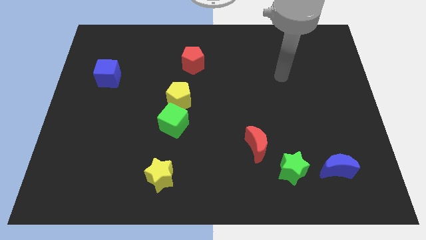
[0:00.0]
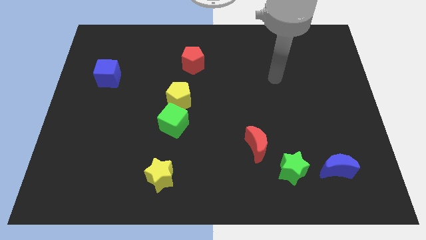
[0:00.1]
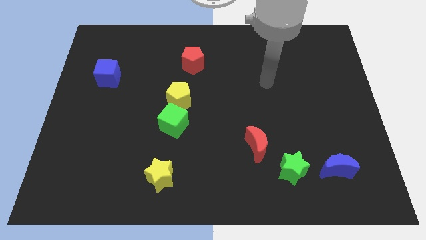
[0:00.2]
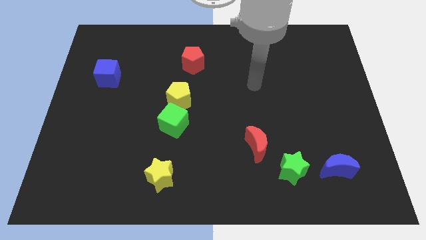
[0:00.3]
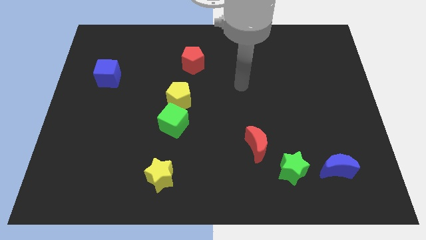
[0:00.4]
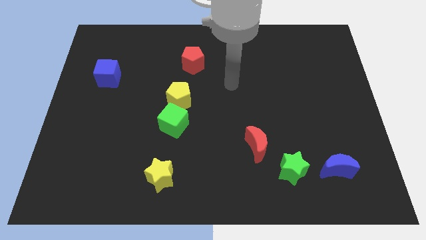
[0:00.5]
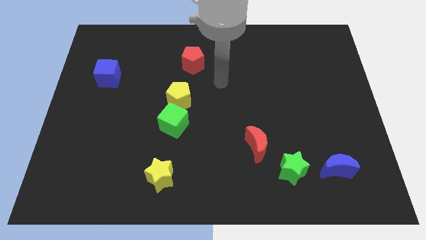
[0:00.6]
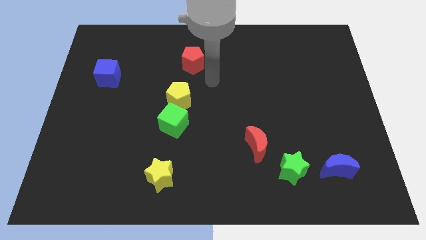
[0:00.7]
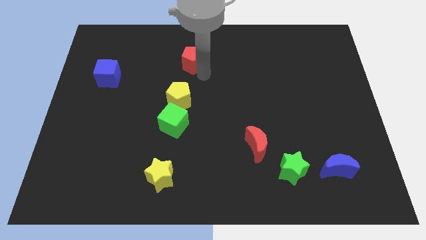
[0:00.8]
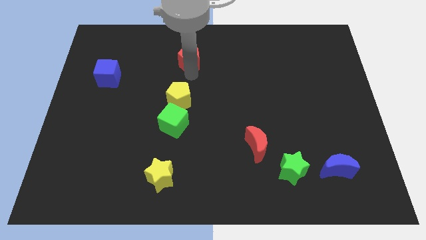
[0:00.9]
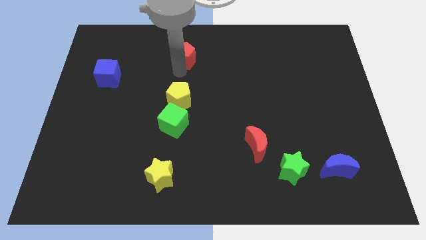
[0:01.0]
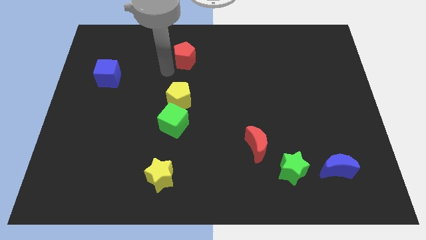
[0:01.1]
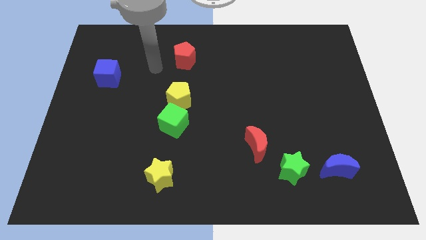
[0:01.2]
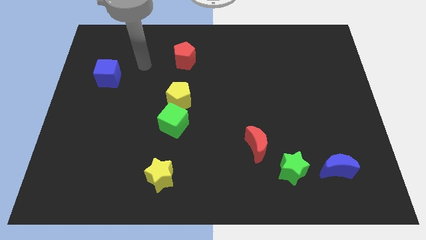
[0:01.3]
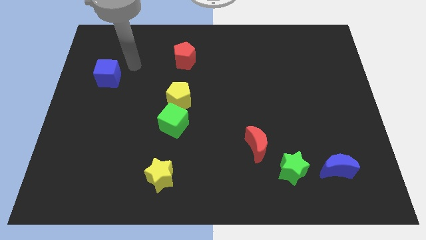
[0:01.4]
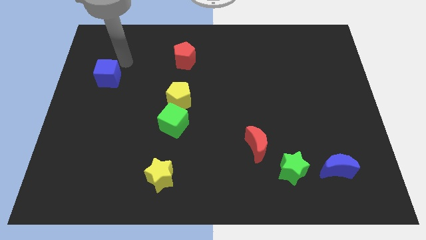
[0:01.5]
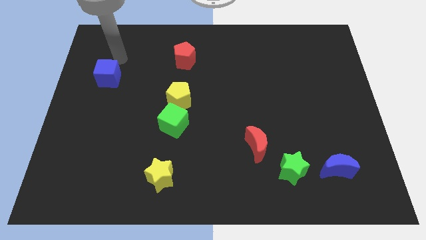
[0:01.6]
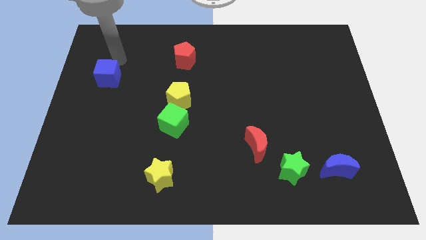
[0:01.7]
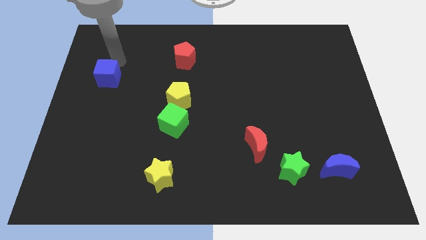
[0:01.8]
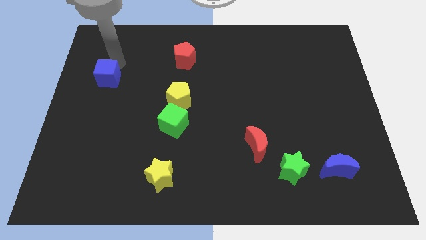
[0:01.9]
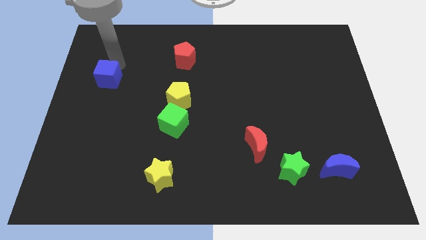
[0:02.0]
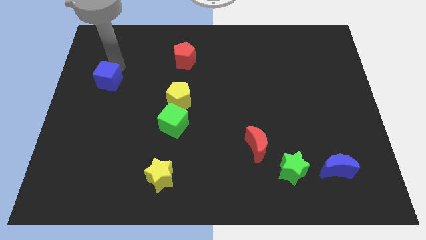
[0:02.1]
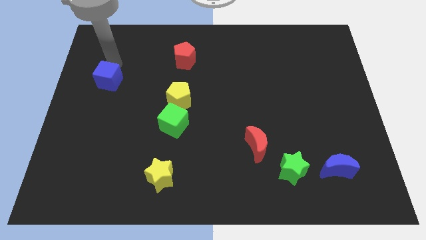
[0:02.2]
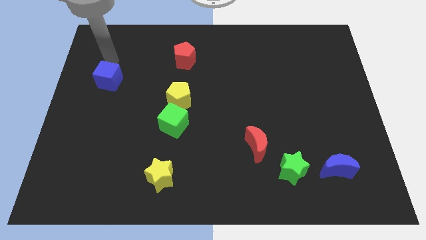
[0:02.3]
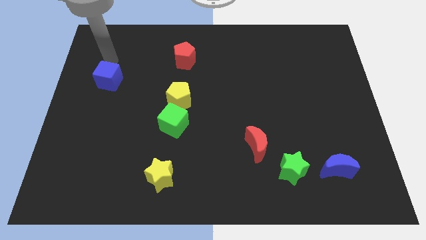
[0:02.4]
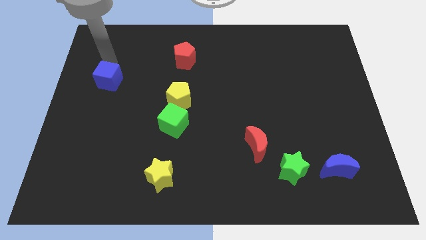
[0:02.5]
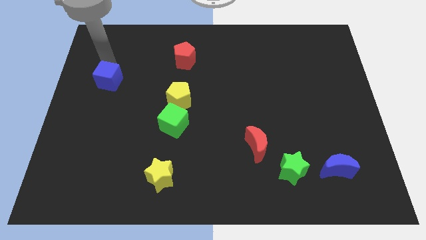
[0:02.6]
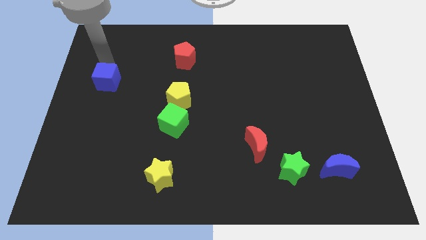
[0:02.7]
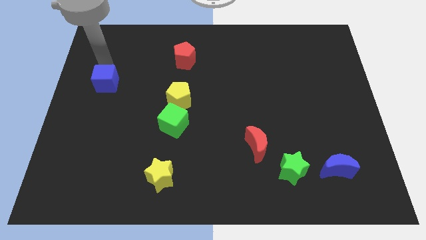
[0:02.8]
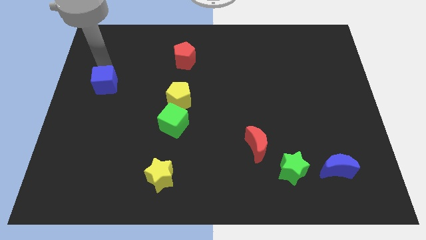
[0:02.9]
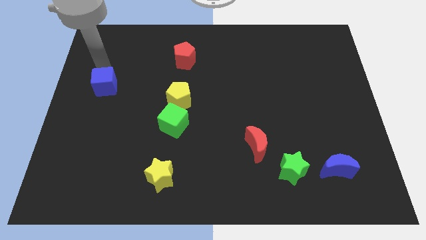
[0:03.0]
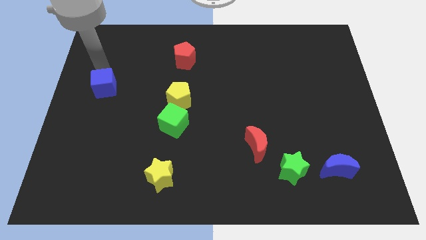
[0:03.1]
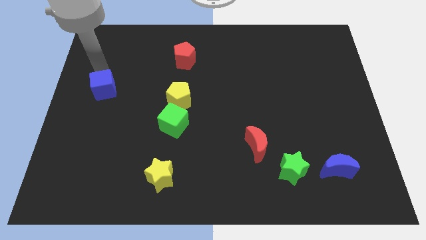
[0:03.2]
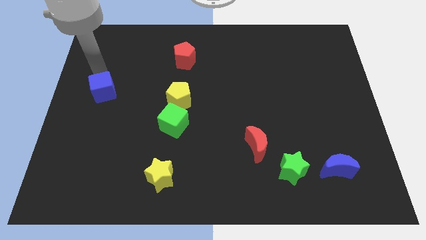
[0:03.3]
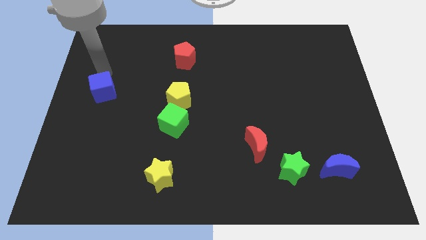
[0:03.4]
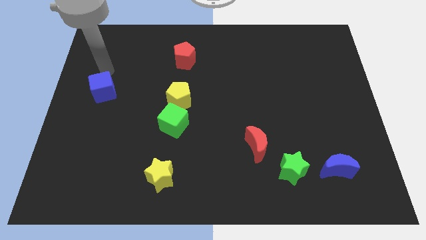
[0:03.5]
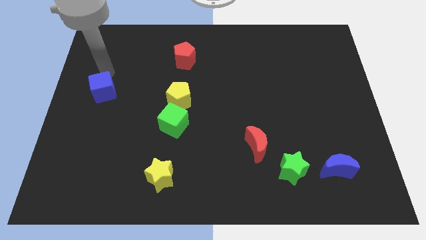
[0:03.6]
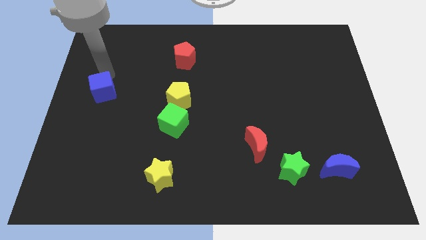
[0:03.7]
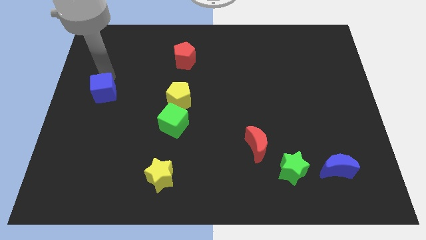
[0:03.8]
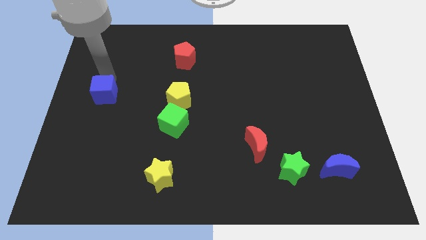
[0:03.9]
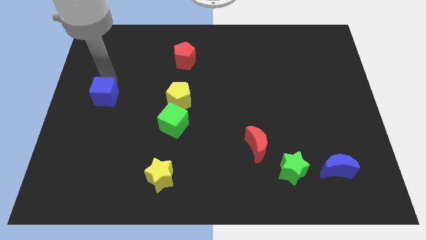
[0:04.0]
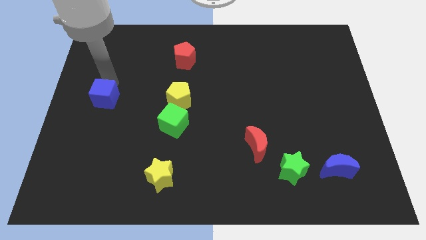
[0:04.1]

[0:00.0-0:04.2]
slightly slide the blue cube down

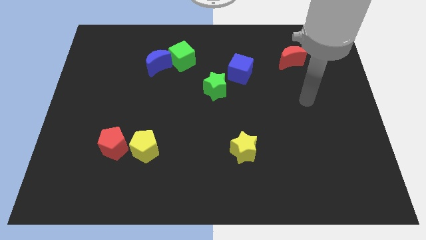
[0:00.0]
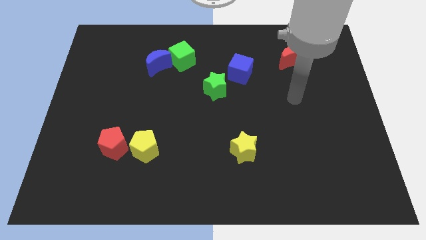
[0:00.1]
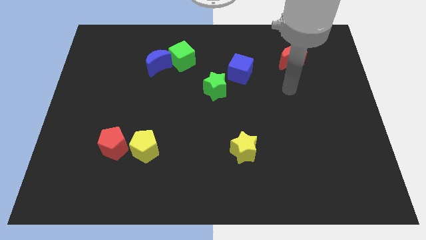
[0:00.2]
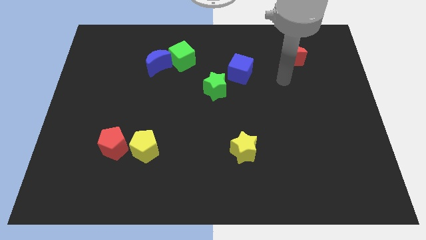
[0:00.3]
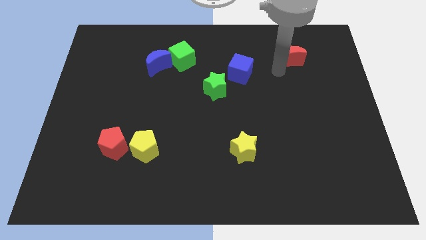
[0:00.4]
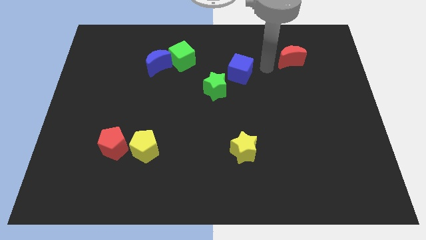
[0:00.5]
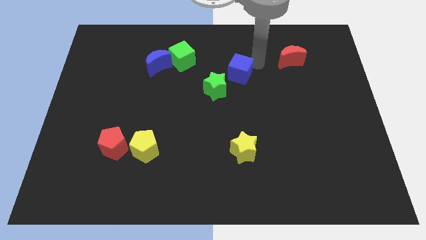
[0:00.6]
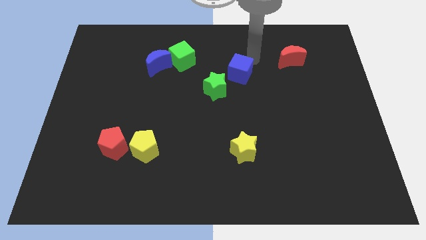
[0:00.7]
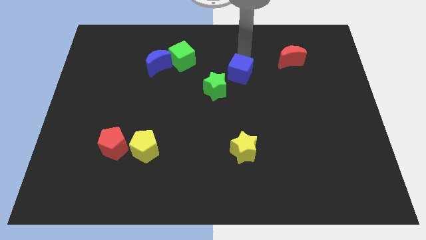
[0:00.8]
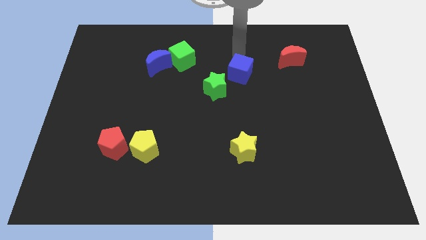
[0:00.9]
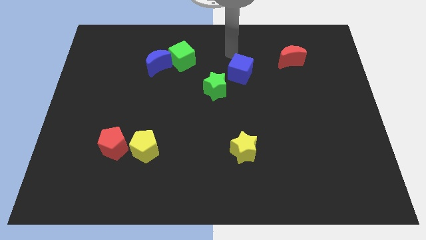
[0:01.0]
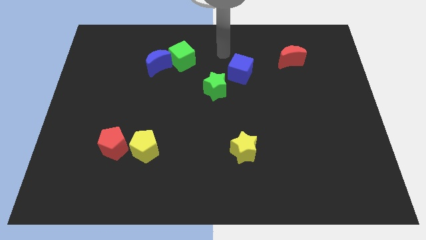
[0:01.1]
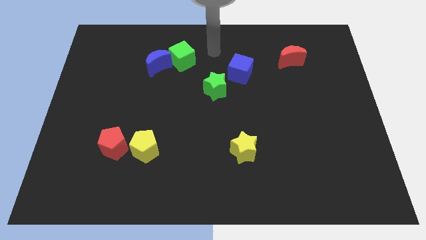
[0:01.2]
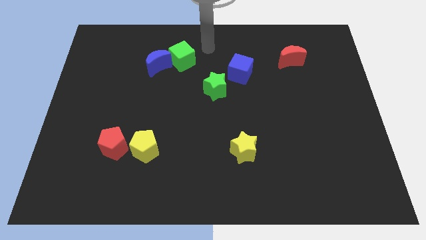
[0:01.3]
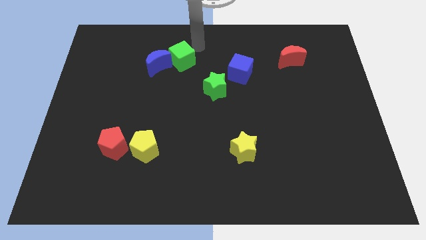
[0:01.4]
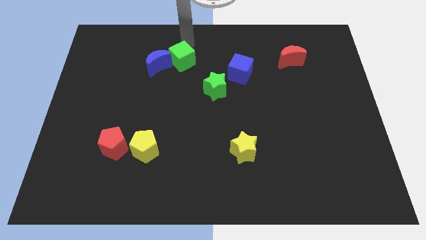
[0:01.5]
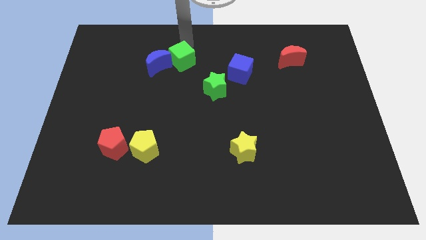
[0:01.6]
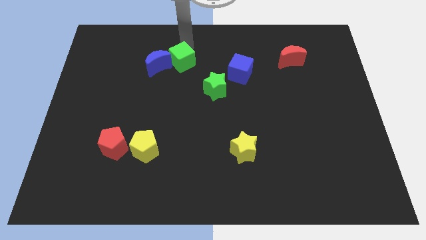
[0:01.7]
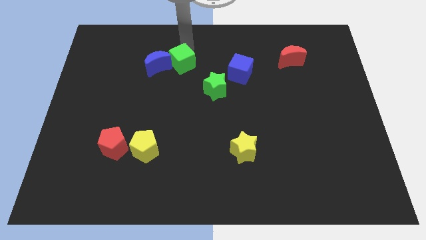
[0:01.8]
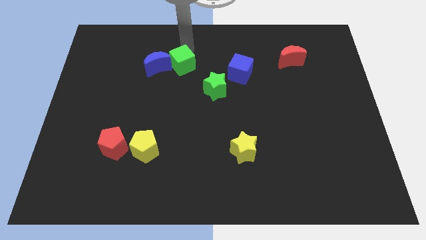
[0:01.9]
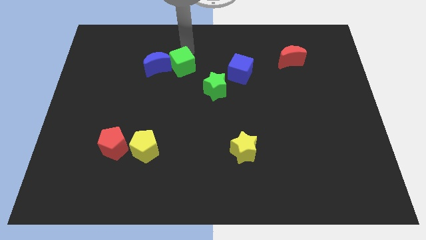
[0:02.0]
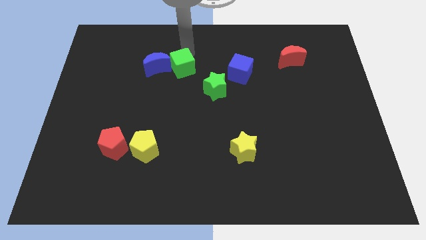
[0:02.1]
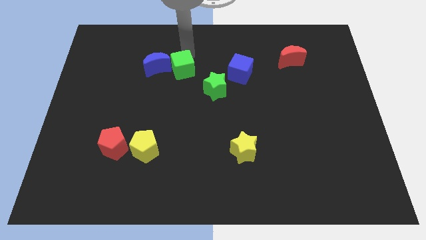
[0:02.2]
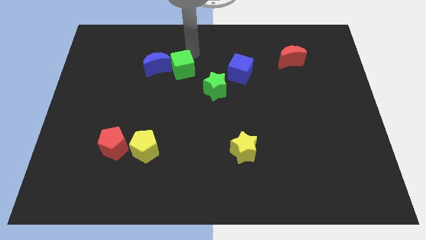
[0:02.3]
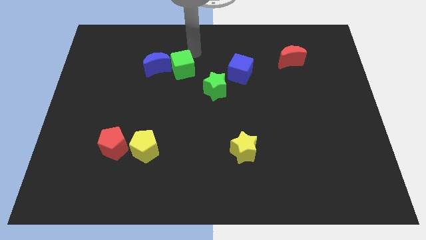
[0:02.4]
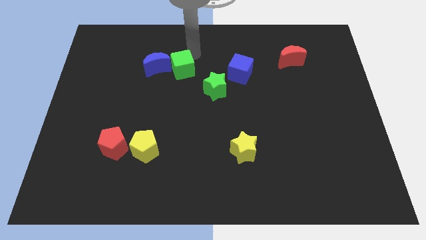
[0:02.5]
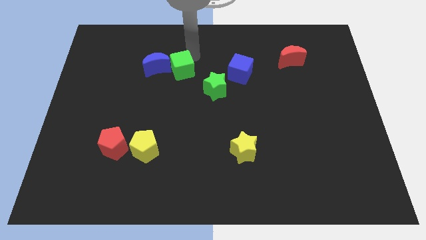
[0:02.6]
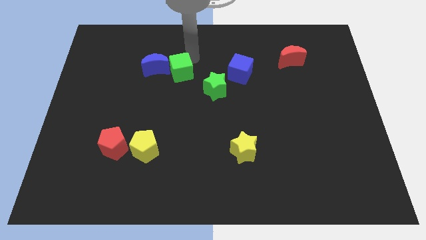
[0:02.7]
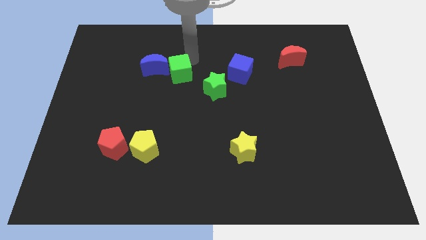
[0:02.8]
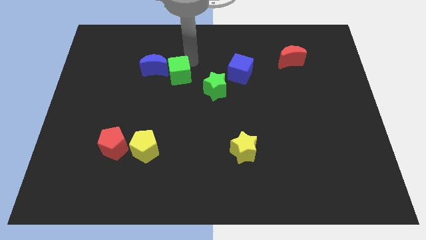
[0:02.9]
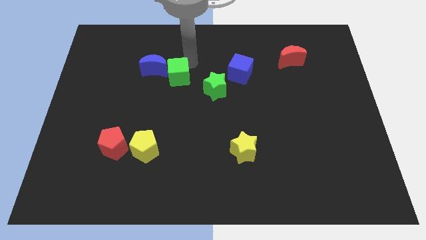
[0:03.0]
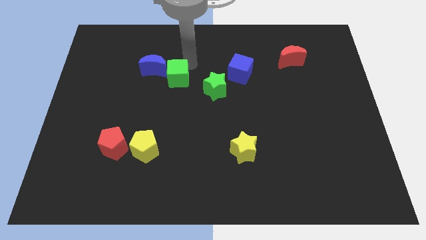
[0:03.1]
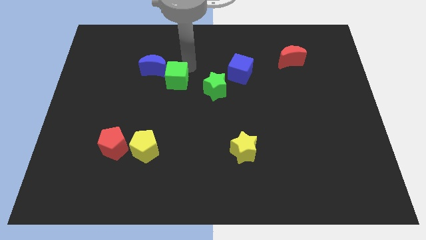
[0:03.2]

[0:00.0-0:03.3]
slide the green cube down a bit

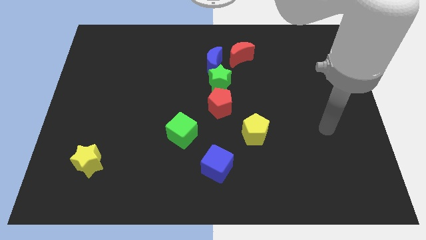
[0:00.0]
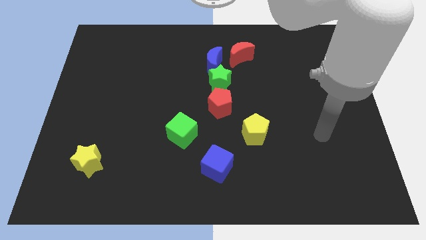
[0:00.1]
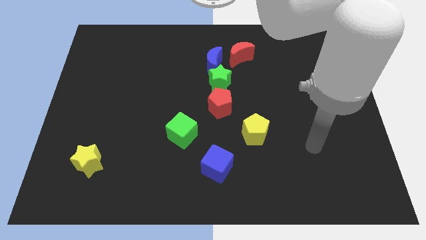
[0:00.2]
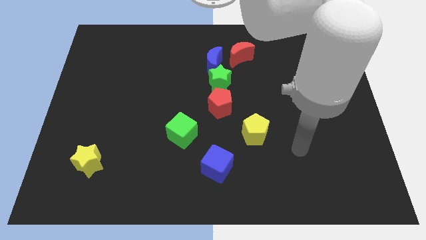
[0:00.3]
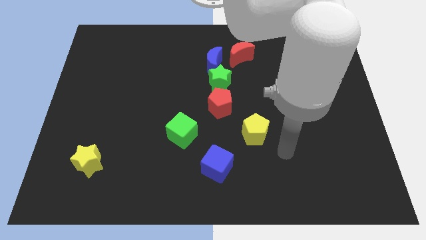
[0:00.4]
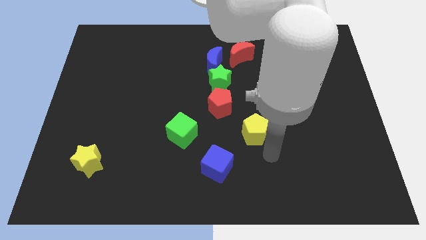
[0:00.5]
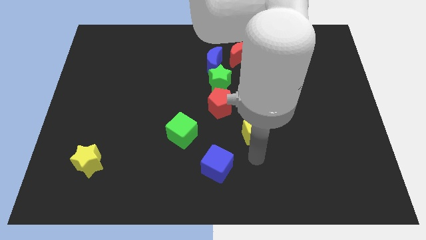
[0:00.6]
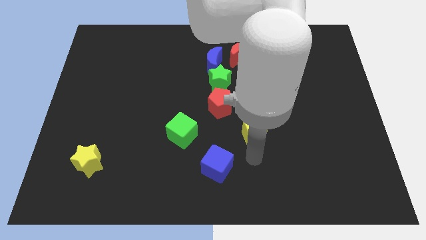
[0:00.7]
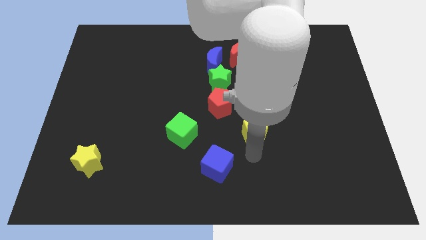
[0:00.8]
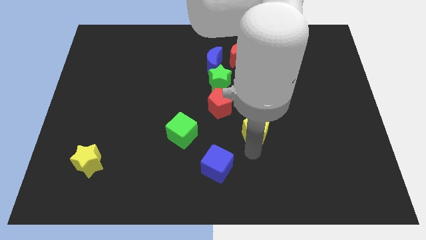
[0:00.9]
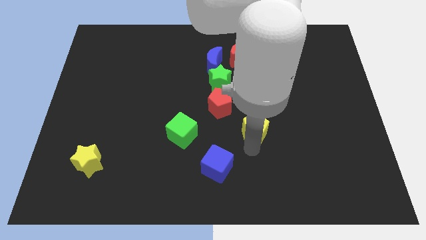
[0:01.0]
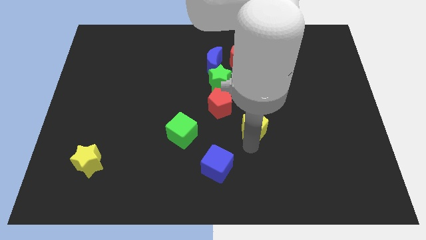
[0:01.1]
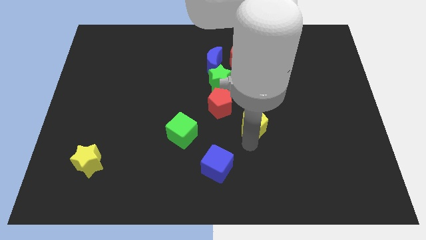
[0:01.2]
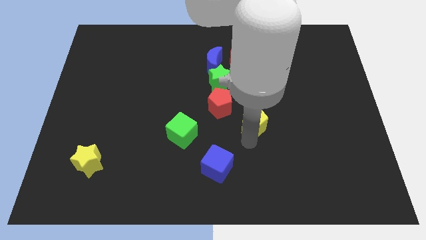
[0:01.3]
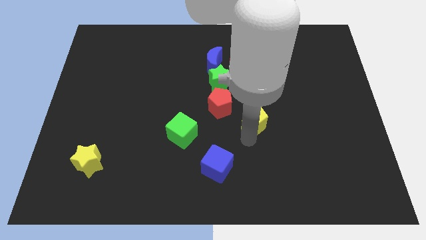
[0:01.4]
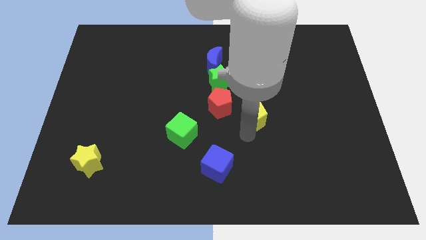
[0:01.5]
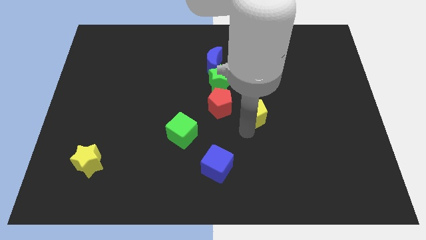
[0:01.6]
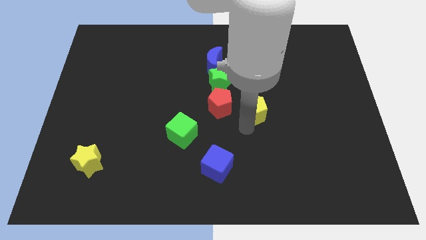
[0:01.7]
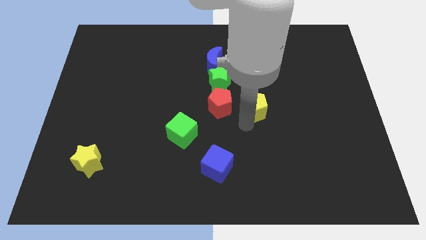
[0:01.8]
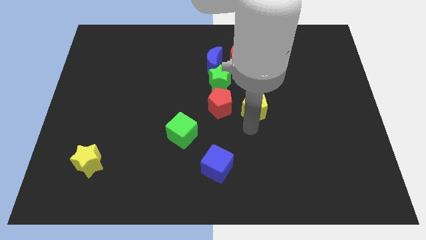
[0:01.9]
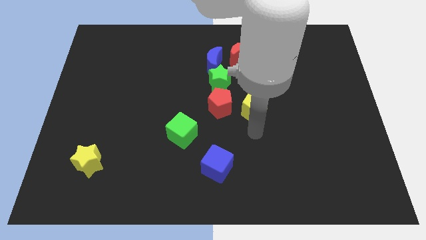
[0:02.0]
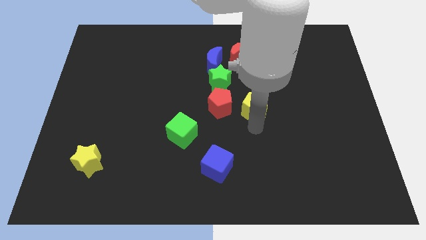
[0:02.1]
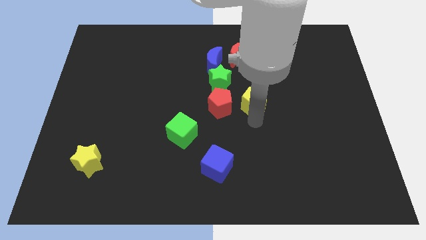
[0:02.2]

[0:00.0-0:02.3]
push the yellow pentagon upwards a little
